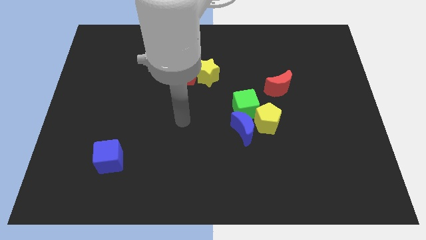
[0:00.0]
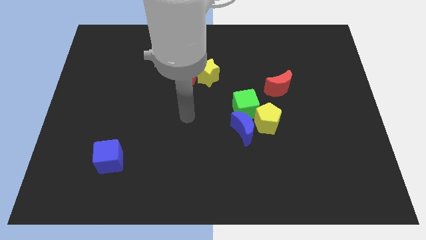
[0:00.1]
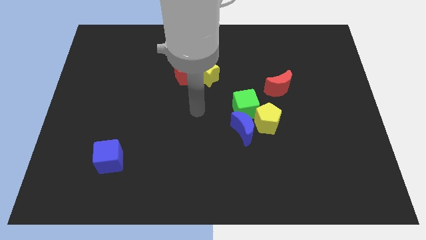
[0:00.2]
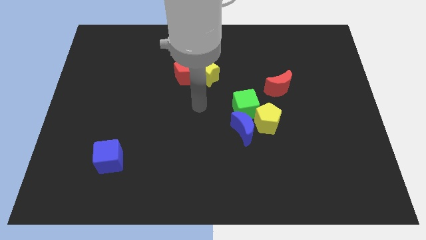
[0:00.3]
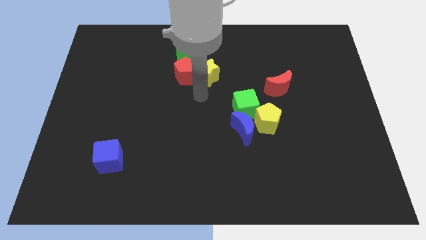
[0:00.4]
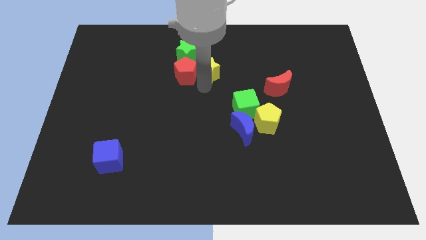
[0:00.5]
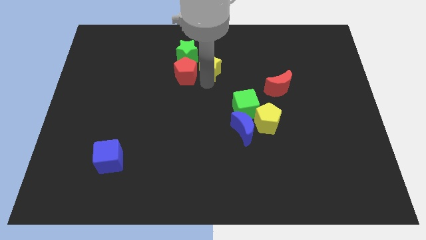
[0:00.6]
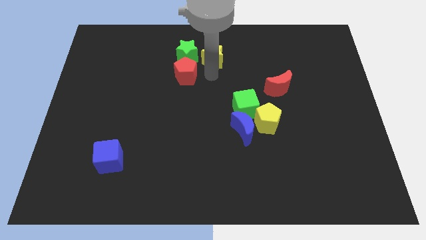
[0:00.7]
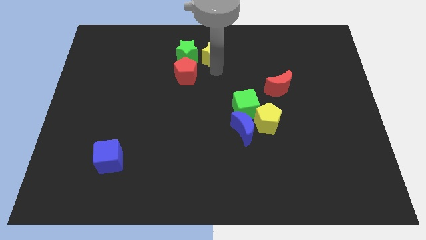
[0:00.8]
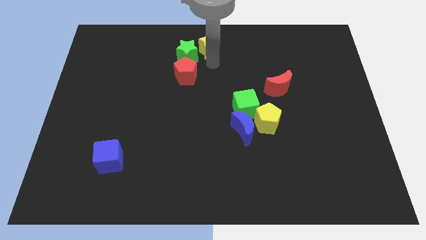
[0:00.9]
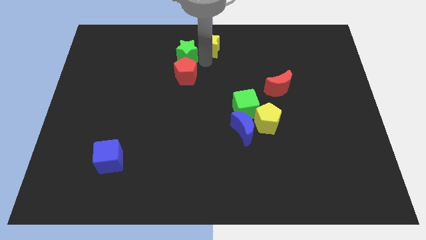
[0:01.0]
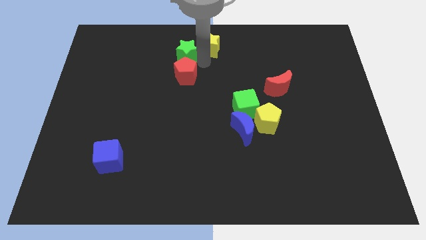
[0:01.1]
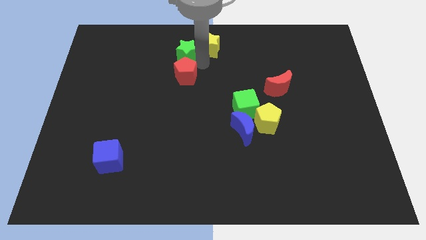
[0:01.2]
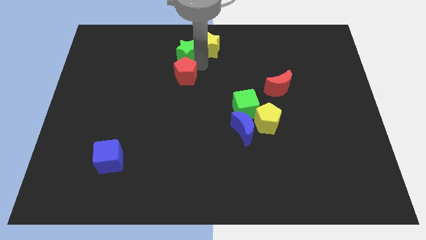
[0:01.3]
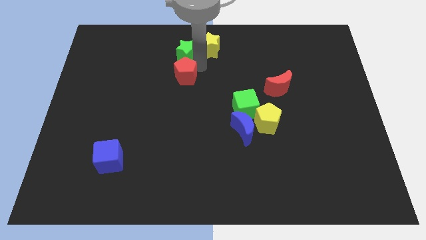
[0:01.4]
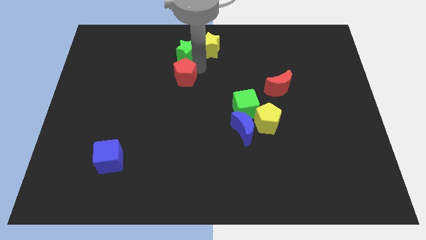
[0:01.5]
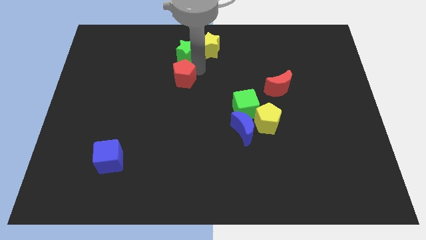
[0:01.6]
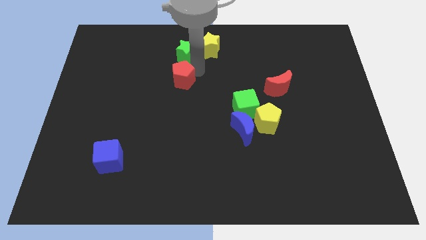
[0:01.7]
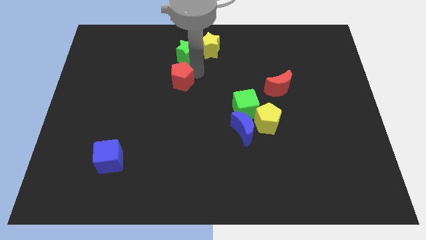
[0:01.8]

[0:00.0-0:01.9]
move the red pentagon away from the yellow star and green star

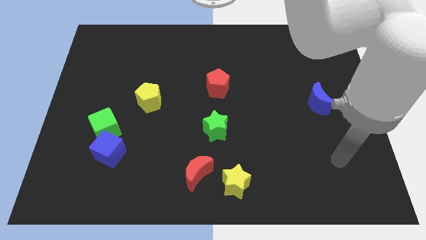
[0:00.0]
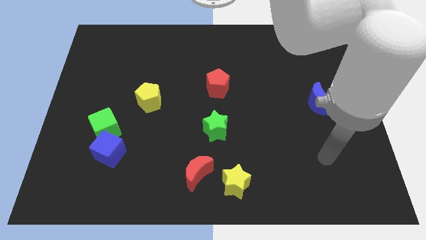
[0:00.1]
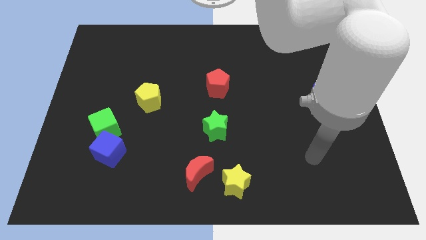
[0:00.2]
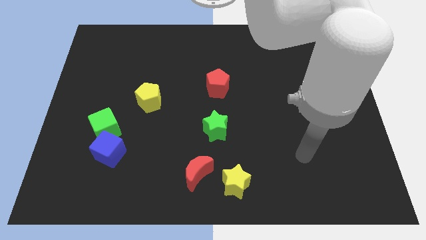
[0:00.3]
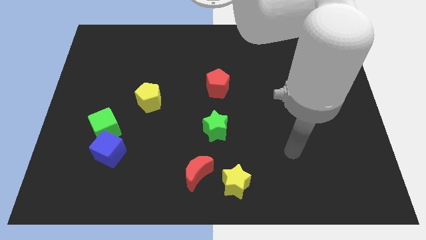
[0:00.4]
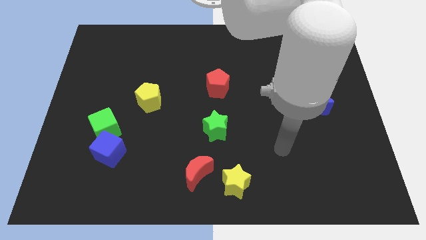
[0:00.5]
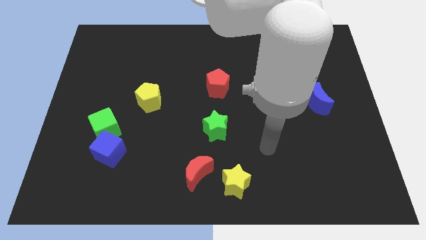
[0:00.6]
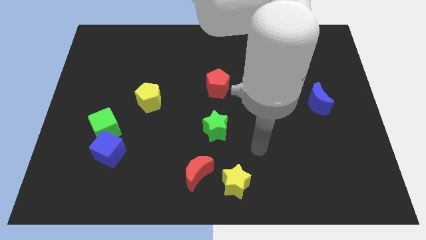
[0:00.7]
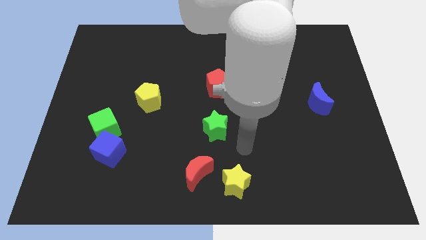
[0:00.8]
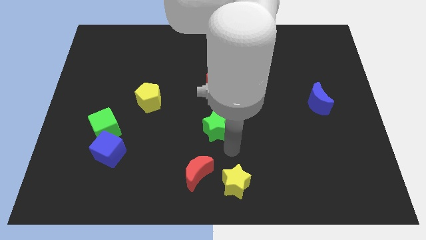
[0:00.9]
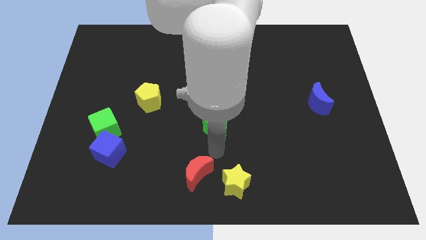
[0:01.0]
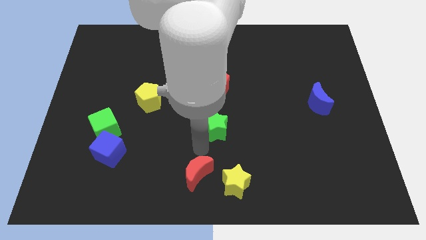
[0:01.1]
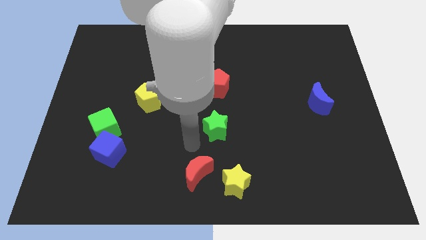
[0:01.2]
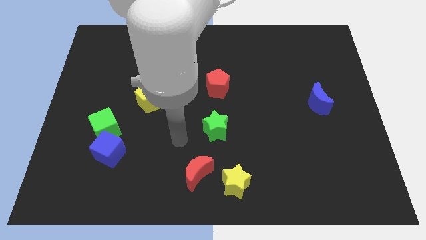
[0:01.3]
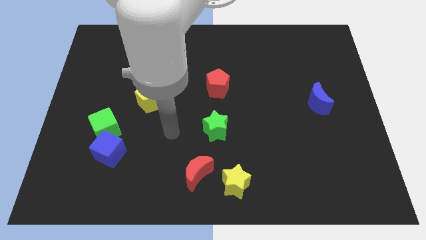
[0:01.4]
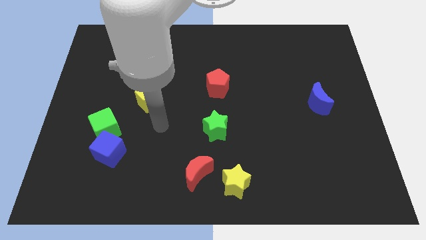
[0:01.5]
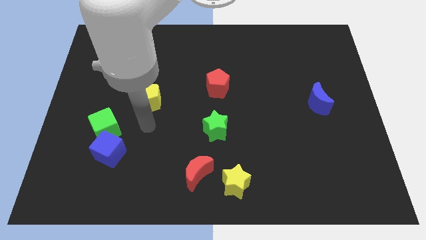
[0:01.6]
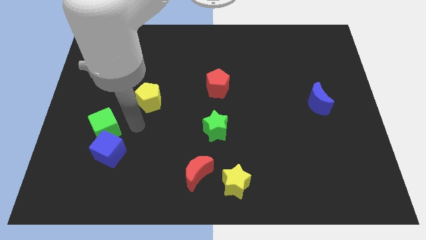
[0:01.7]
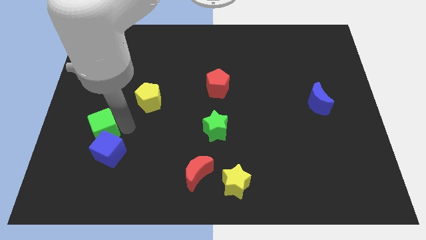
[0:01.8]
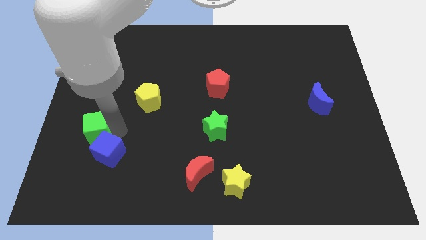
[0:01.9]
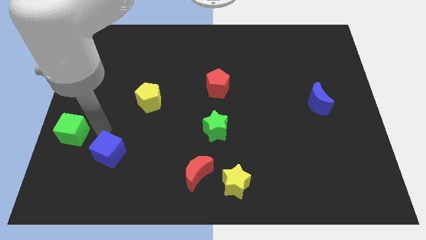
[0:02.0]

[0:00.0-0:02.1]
pull the blue cube apart from the green cube

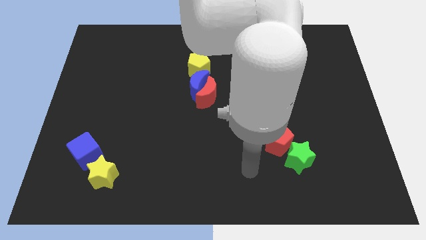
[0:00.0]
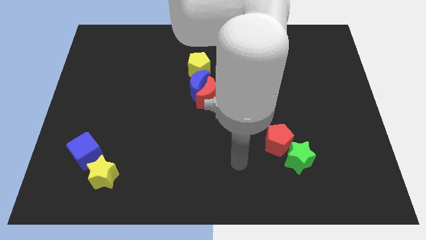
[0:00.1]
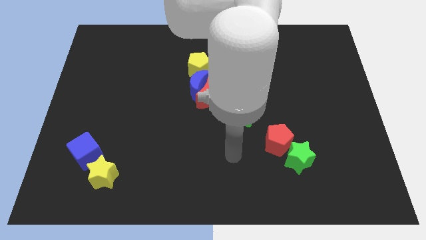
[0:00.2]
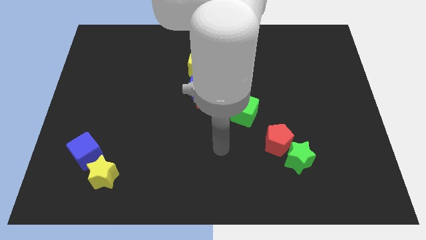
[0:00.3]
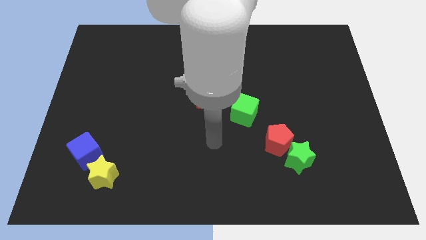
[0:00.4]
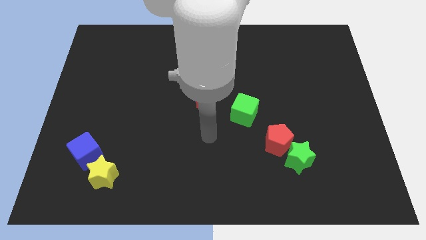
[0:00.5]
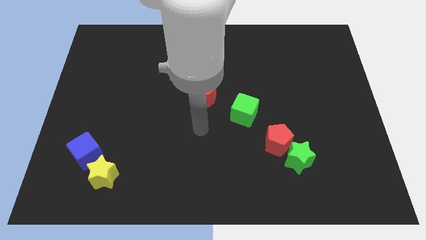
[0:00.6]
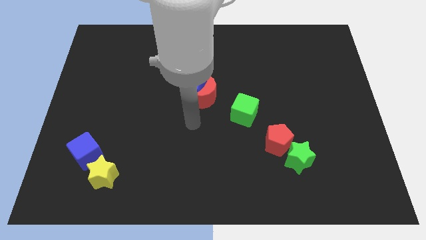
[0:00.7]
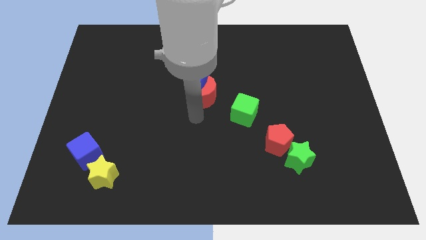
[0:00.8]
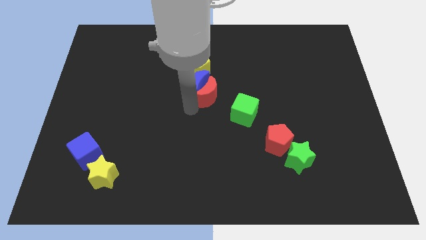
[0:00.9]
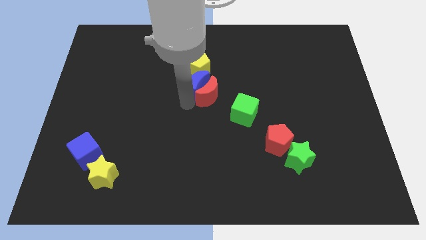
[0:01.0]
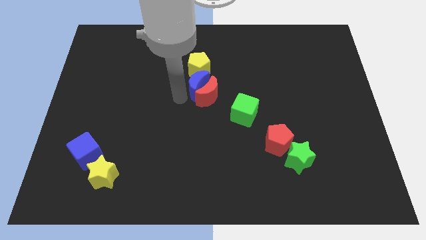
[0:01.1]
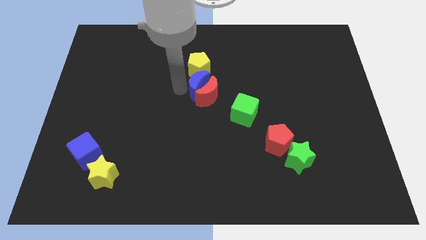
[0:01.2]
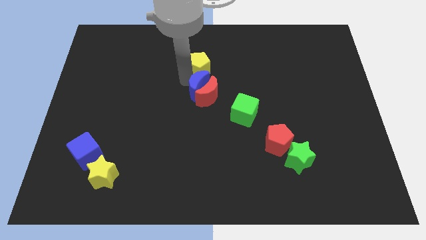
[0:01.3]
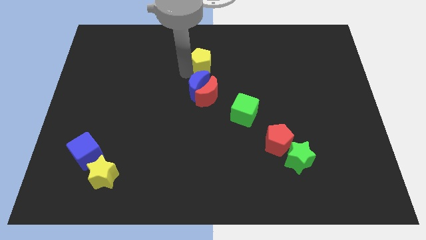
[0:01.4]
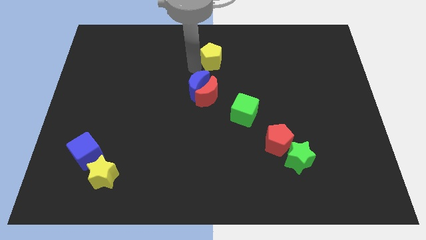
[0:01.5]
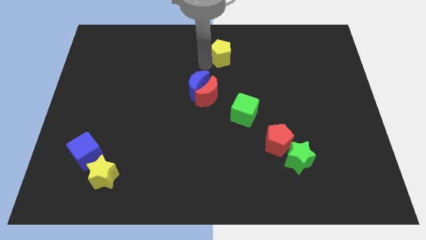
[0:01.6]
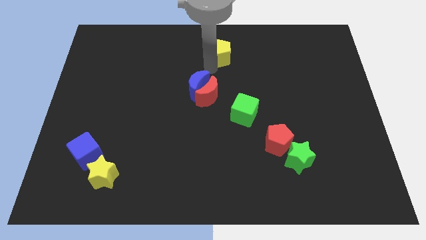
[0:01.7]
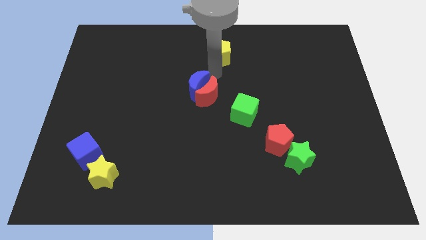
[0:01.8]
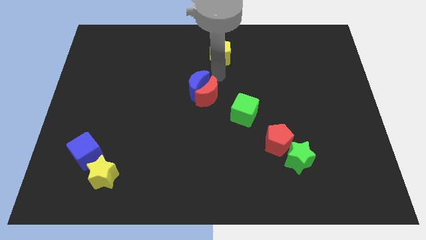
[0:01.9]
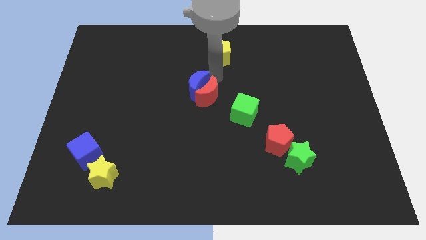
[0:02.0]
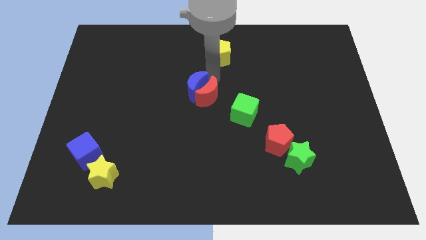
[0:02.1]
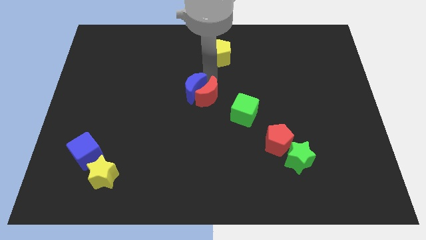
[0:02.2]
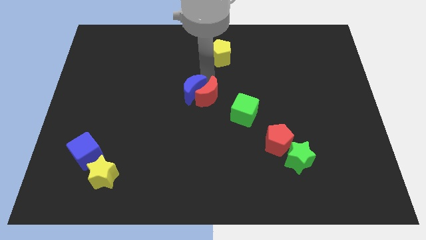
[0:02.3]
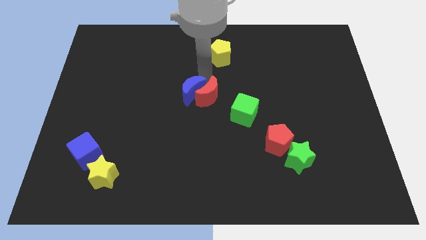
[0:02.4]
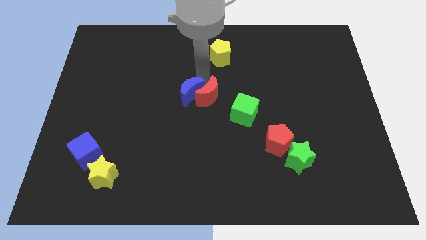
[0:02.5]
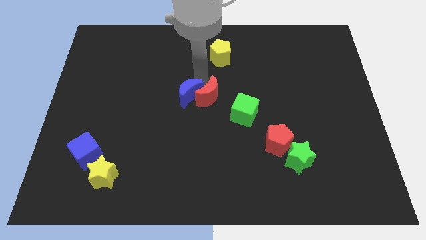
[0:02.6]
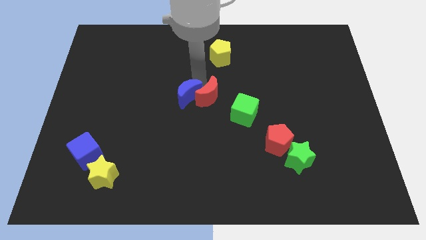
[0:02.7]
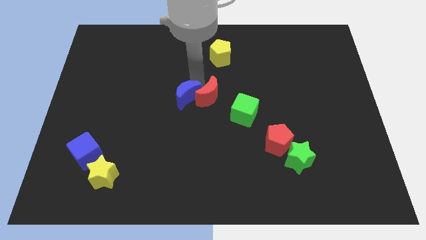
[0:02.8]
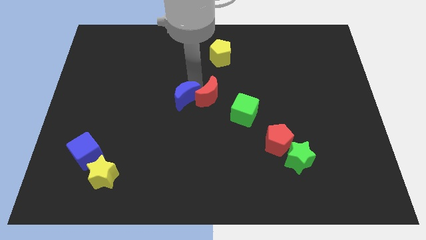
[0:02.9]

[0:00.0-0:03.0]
pull the blue moon apart from the red moon and yellow pentagon

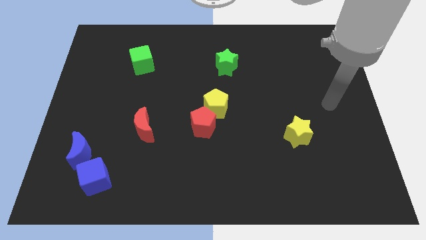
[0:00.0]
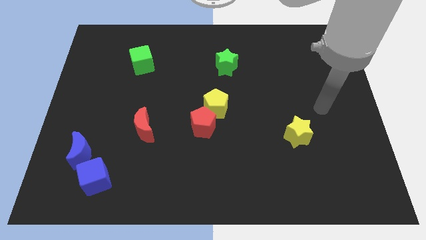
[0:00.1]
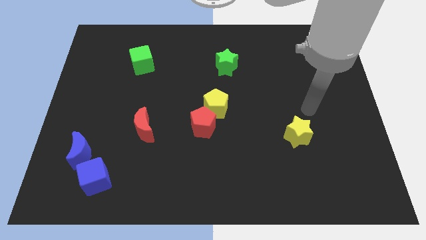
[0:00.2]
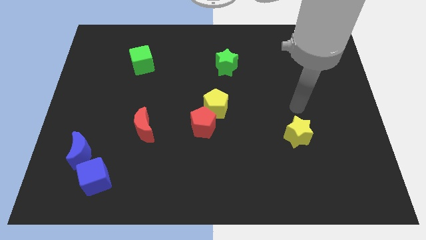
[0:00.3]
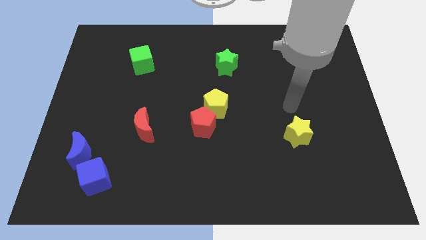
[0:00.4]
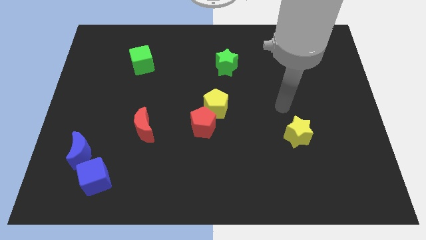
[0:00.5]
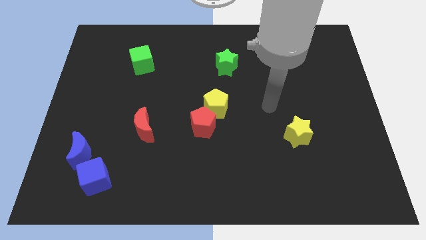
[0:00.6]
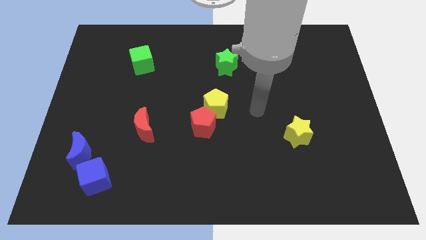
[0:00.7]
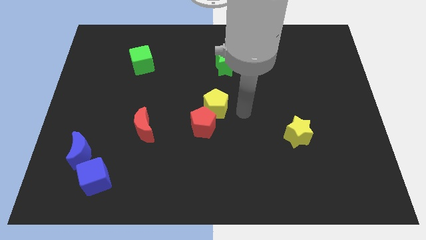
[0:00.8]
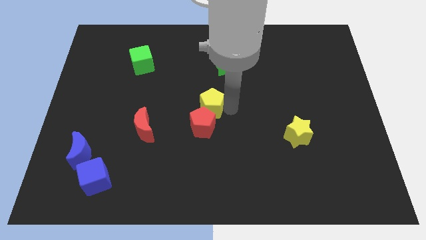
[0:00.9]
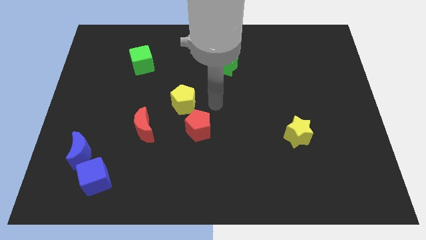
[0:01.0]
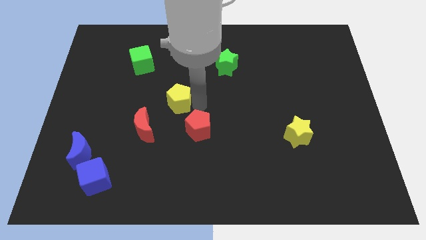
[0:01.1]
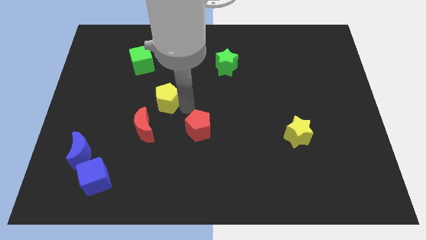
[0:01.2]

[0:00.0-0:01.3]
separate the red pentagon from the yellow pentagon

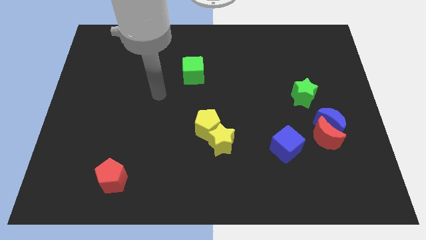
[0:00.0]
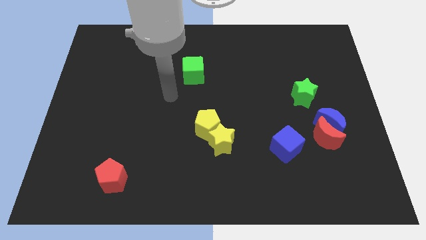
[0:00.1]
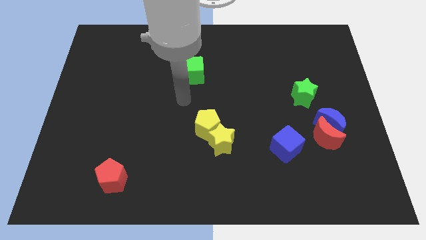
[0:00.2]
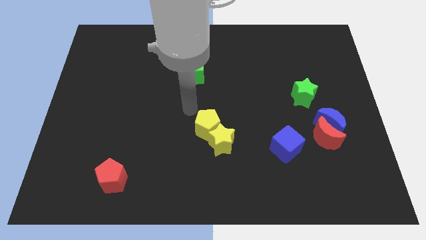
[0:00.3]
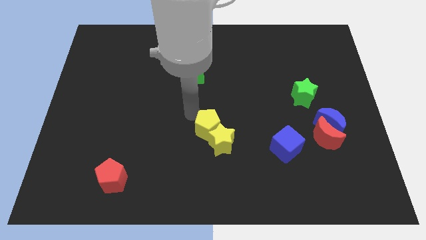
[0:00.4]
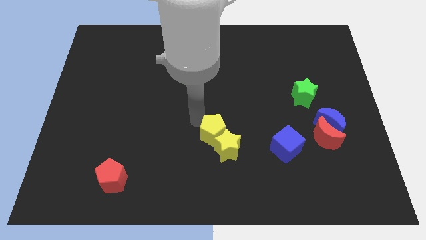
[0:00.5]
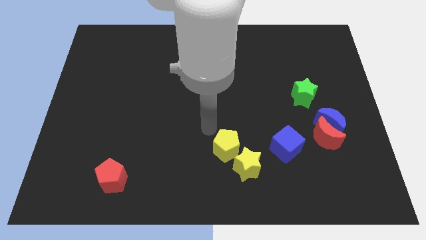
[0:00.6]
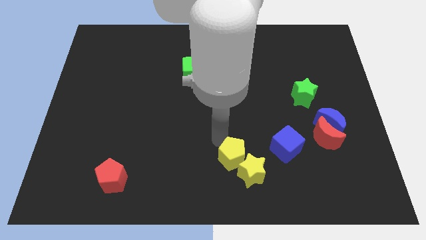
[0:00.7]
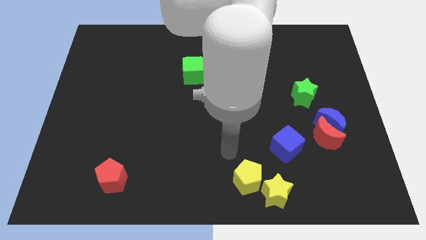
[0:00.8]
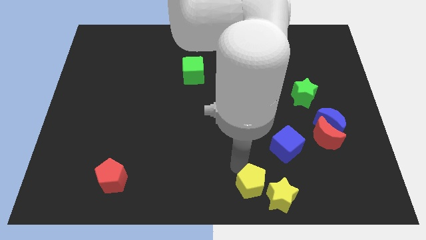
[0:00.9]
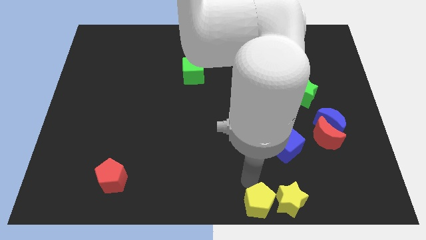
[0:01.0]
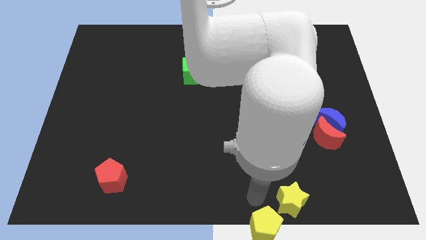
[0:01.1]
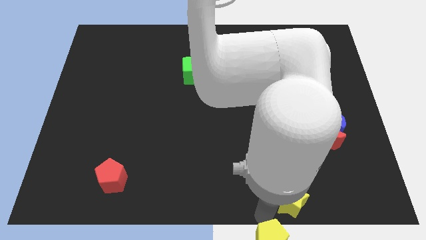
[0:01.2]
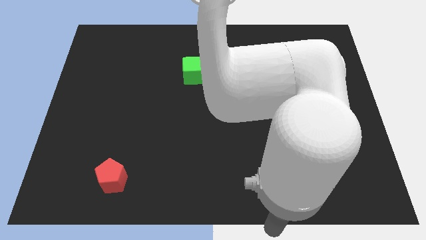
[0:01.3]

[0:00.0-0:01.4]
pull the yellow star apart from the yellow pentagon
